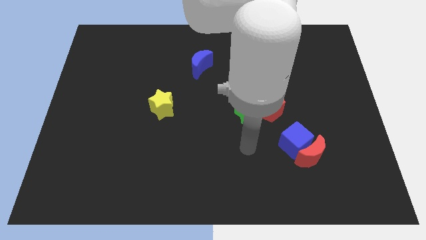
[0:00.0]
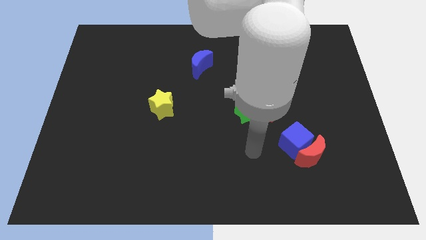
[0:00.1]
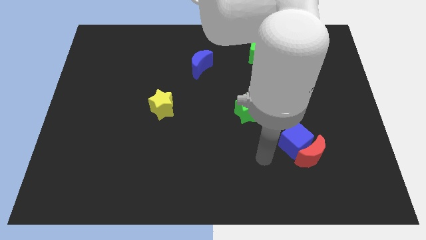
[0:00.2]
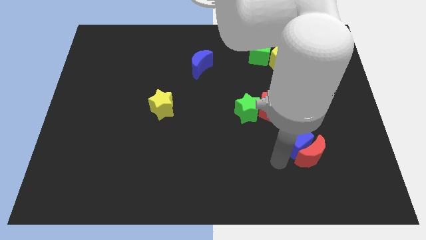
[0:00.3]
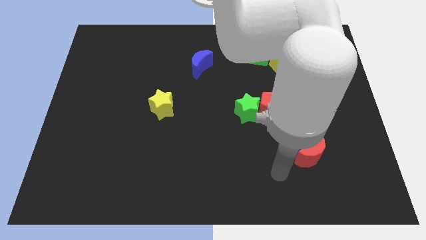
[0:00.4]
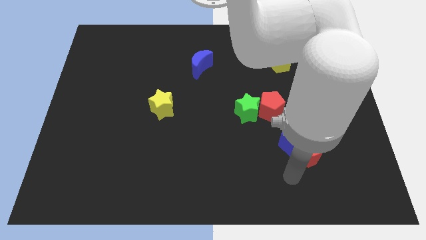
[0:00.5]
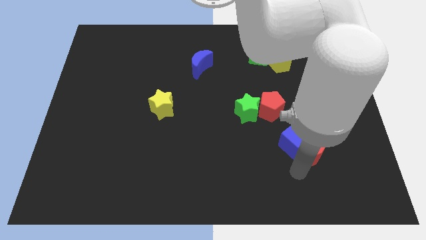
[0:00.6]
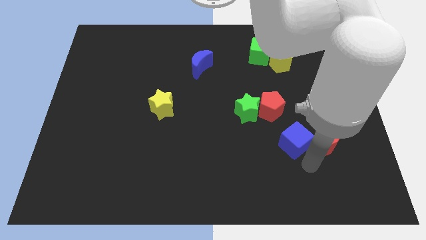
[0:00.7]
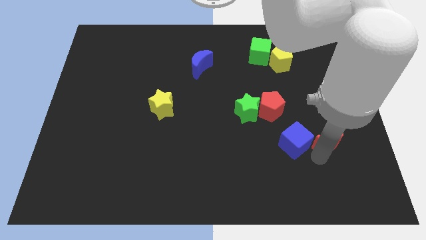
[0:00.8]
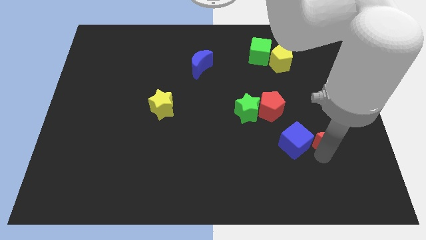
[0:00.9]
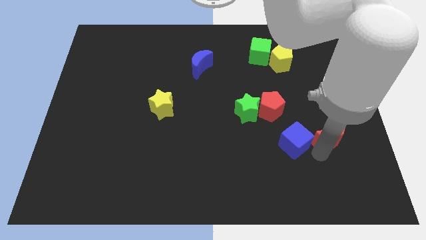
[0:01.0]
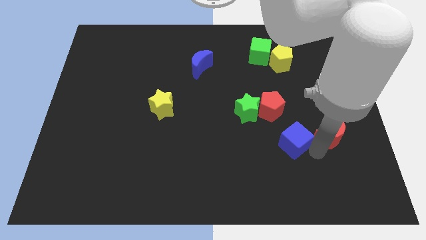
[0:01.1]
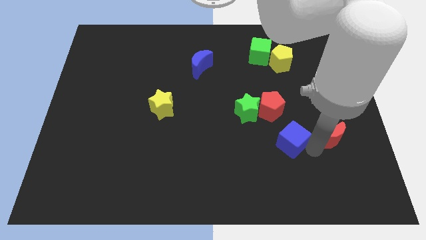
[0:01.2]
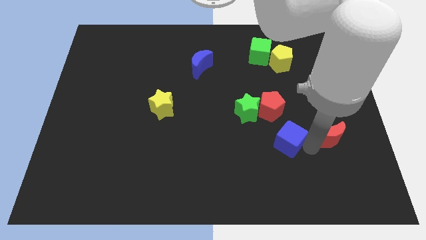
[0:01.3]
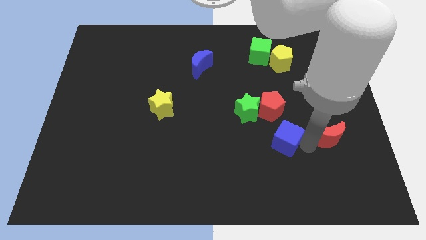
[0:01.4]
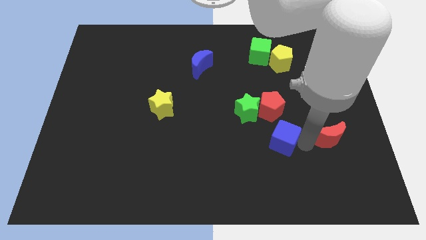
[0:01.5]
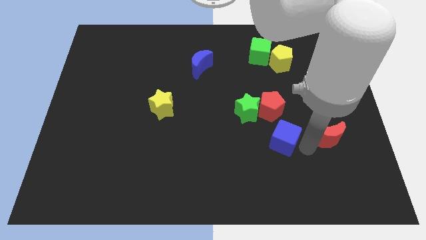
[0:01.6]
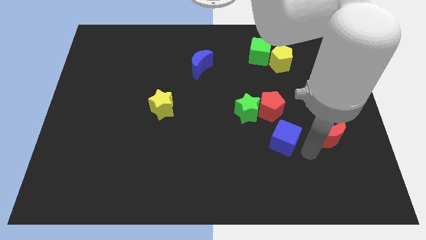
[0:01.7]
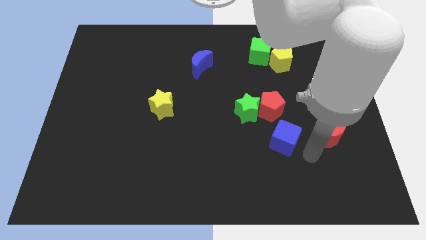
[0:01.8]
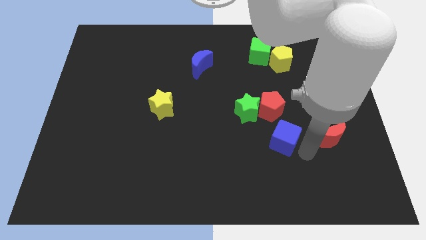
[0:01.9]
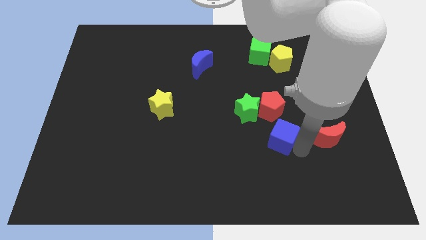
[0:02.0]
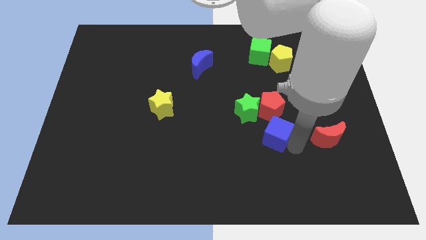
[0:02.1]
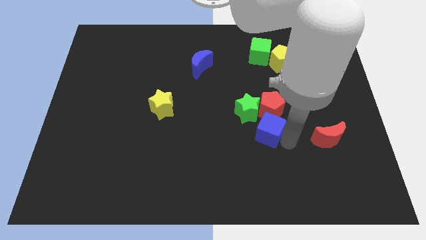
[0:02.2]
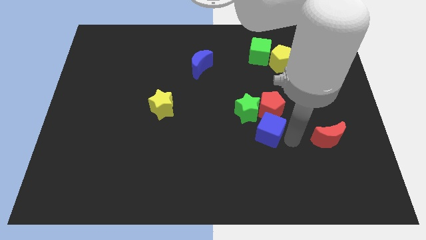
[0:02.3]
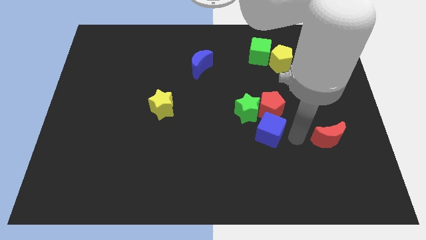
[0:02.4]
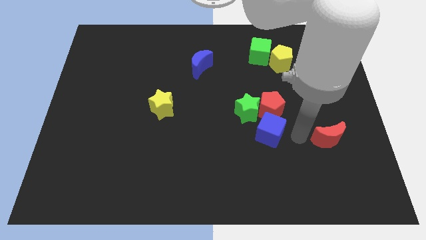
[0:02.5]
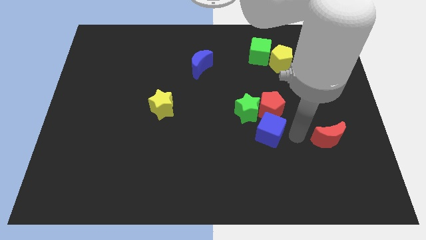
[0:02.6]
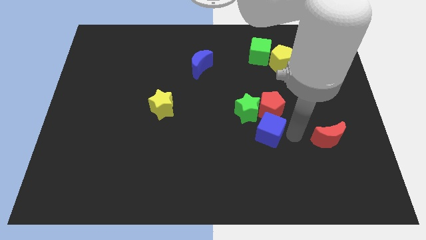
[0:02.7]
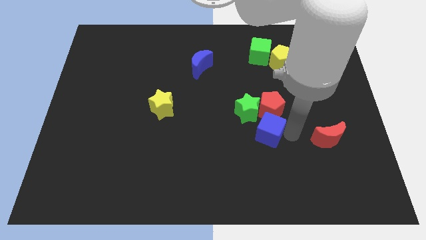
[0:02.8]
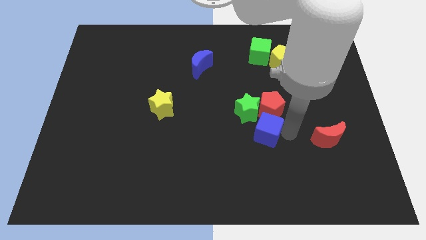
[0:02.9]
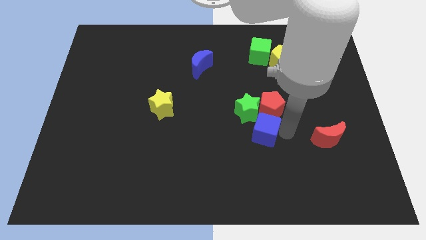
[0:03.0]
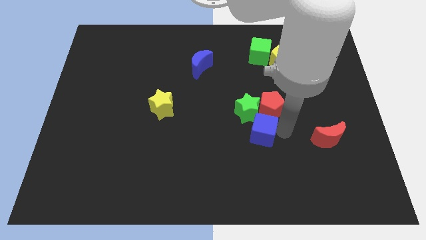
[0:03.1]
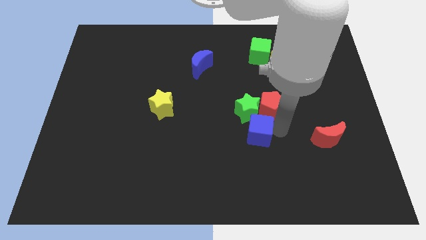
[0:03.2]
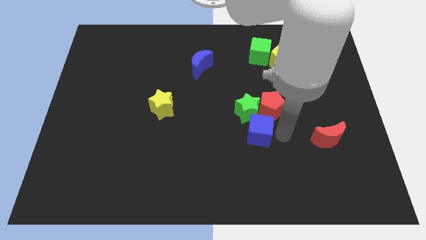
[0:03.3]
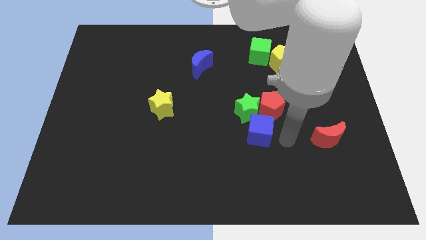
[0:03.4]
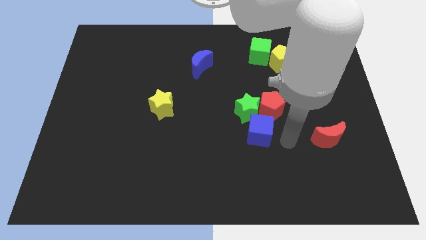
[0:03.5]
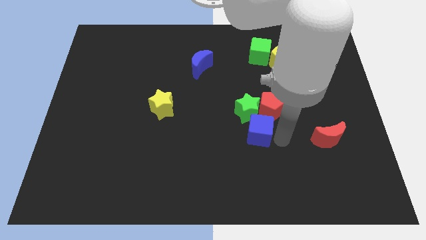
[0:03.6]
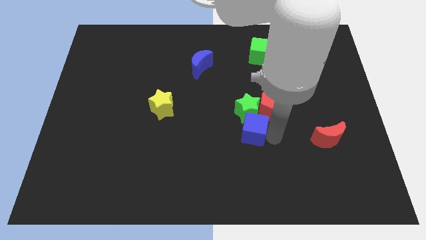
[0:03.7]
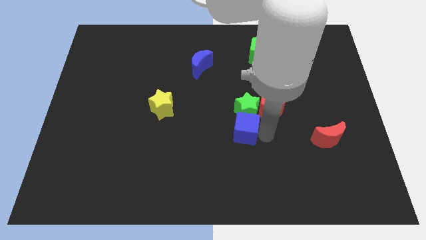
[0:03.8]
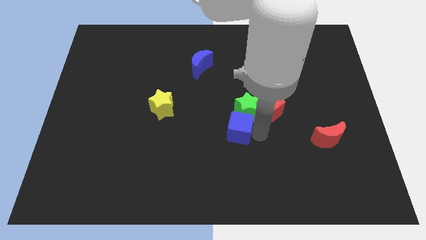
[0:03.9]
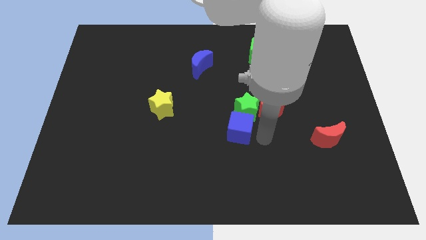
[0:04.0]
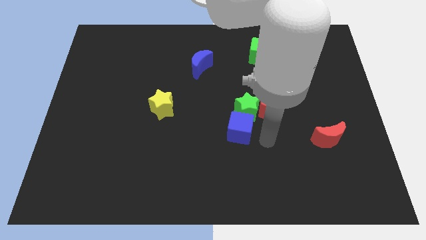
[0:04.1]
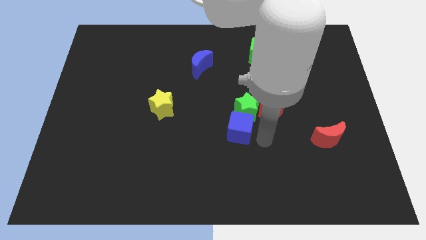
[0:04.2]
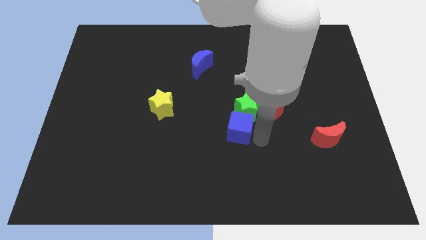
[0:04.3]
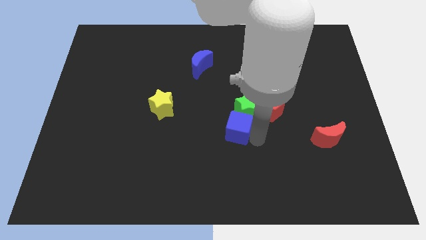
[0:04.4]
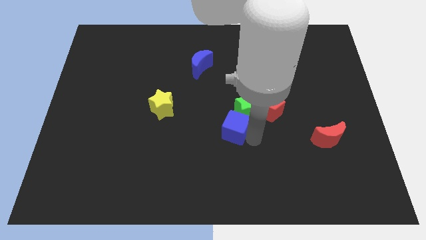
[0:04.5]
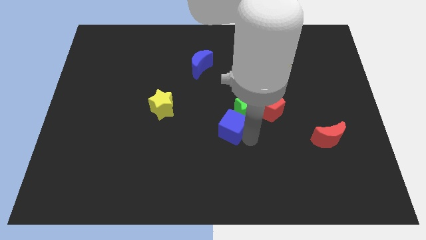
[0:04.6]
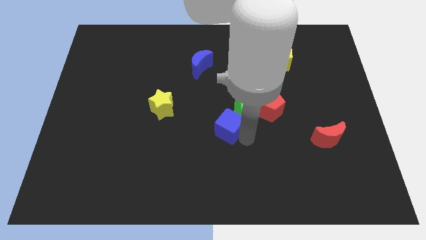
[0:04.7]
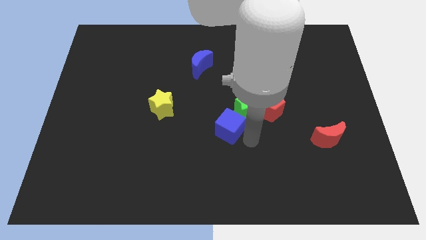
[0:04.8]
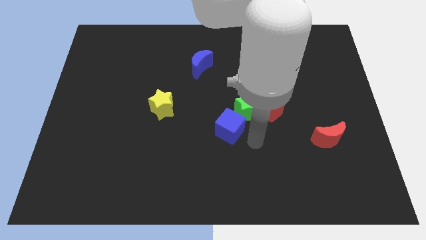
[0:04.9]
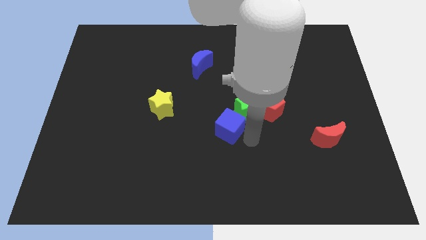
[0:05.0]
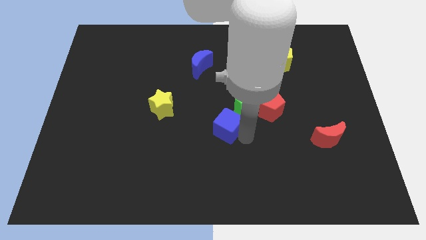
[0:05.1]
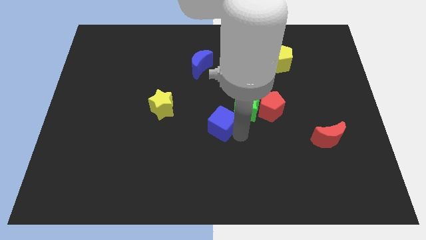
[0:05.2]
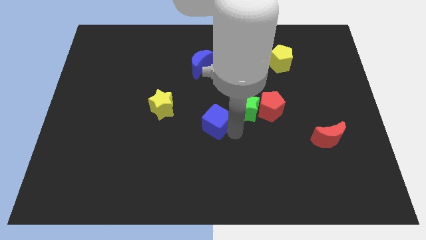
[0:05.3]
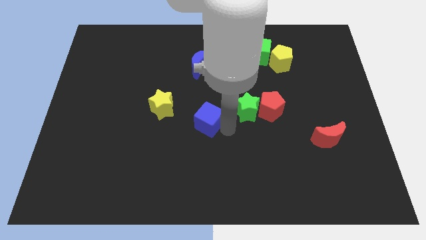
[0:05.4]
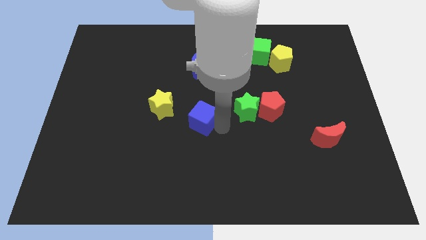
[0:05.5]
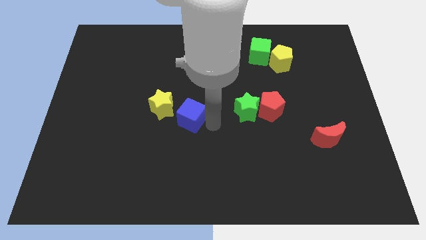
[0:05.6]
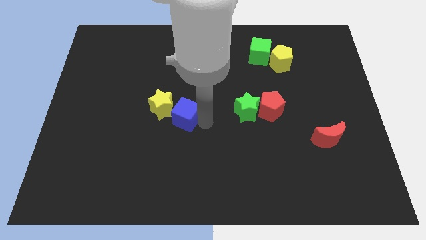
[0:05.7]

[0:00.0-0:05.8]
slide the blue cube towards the yellow star

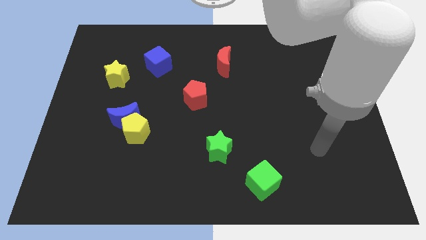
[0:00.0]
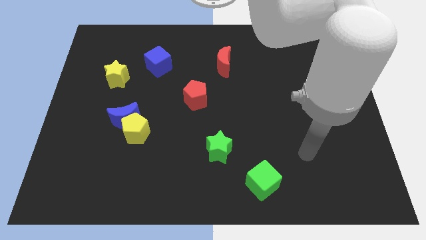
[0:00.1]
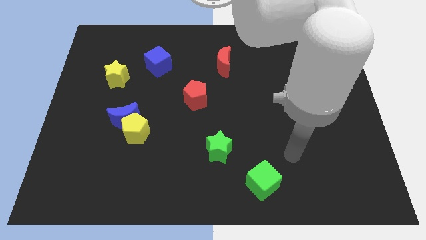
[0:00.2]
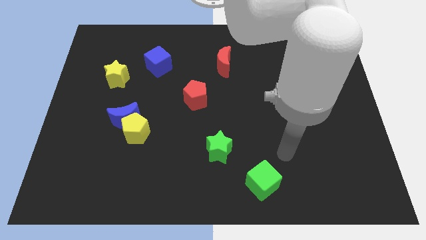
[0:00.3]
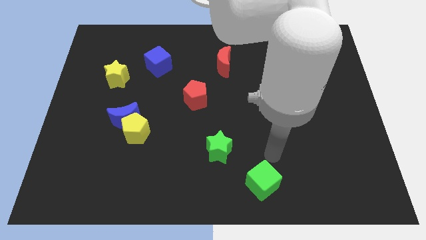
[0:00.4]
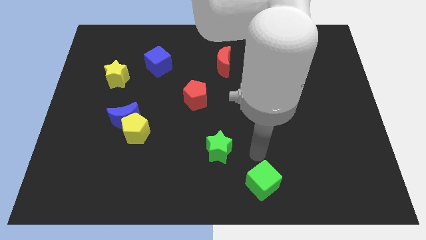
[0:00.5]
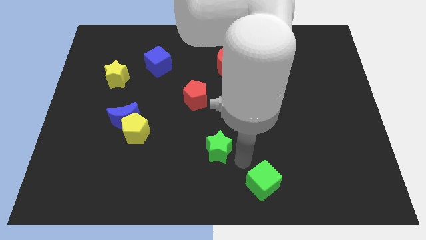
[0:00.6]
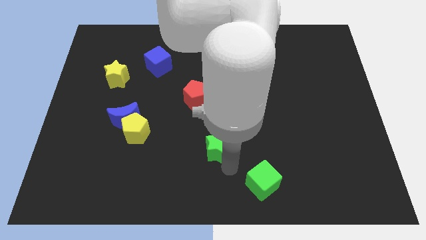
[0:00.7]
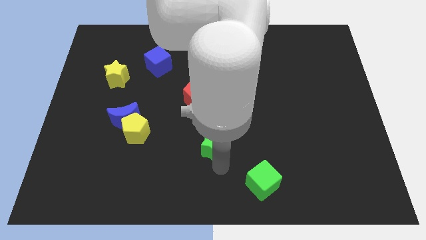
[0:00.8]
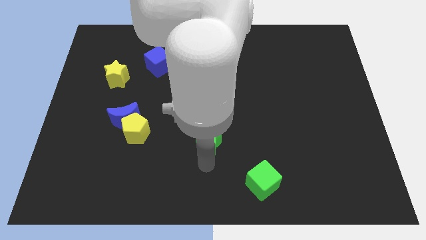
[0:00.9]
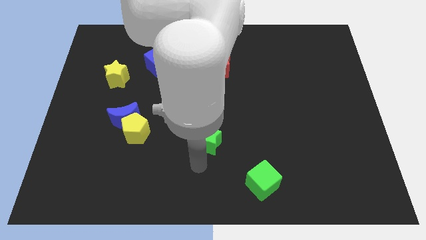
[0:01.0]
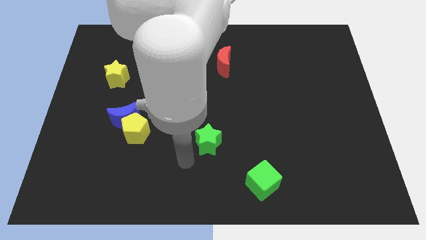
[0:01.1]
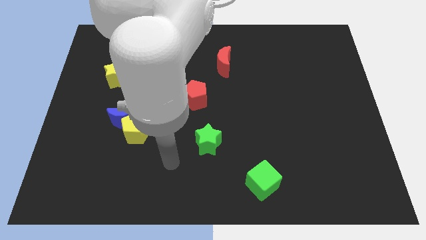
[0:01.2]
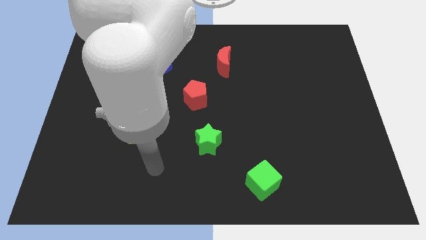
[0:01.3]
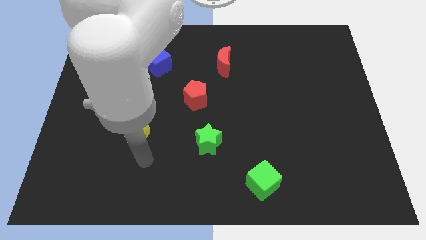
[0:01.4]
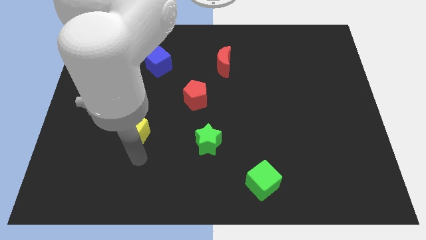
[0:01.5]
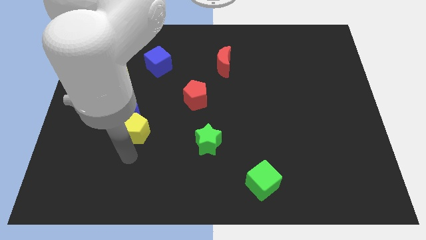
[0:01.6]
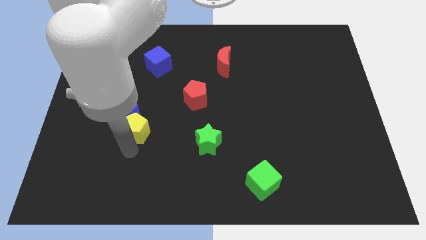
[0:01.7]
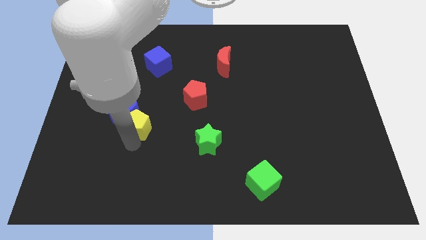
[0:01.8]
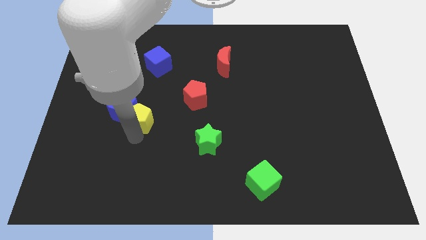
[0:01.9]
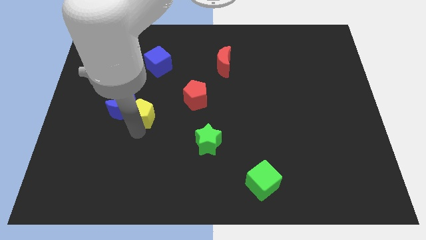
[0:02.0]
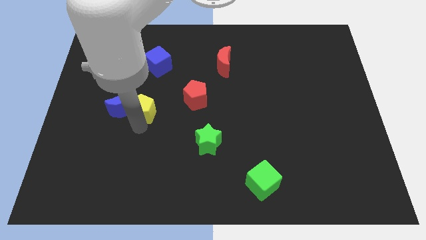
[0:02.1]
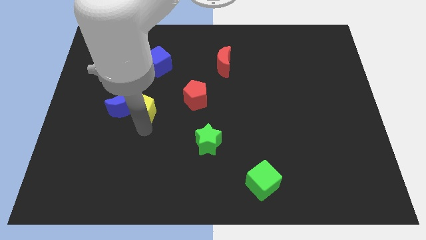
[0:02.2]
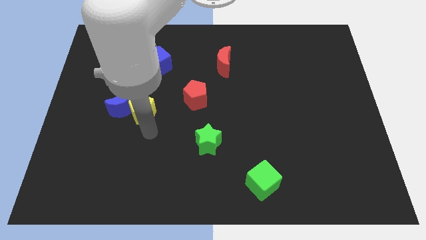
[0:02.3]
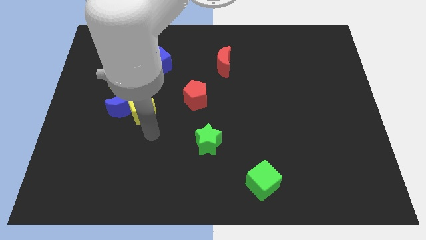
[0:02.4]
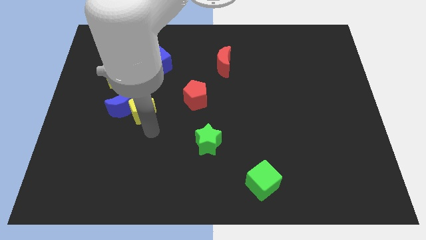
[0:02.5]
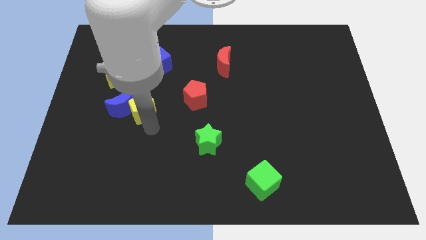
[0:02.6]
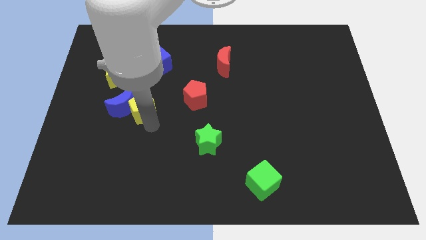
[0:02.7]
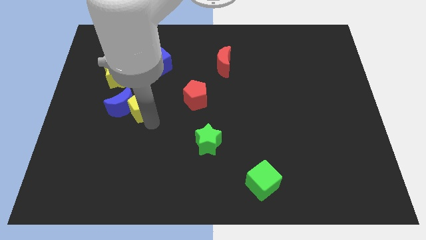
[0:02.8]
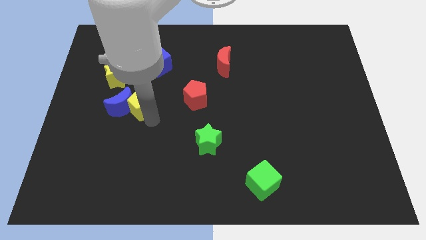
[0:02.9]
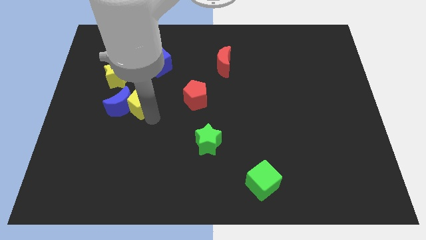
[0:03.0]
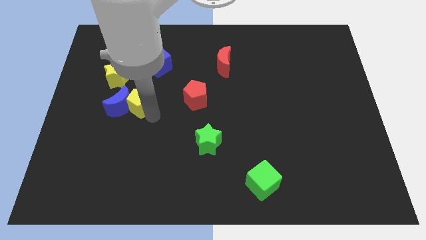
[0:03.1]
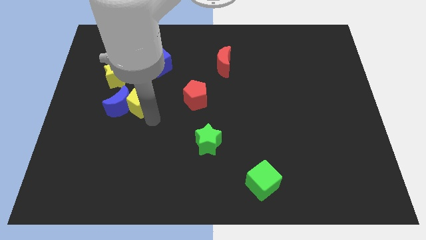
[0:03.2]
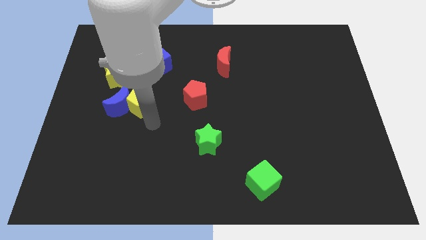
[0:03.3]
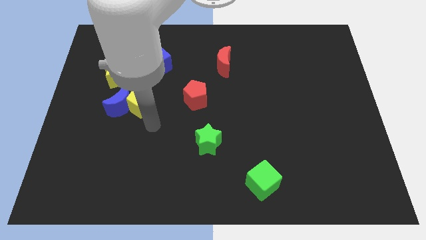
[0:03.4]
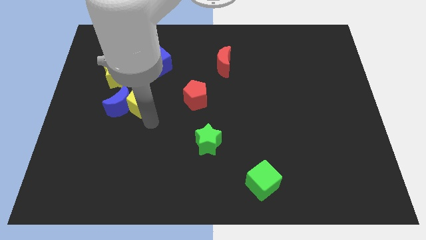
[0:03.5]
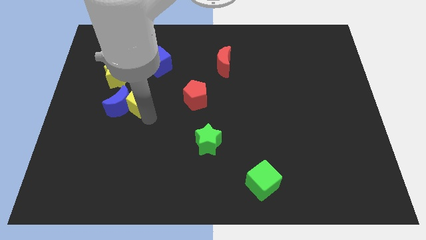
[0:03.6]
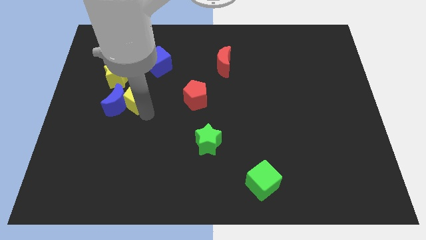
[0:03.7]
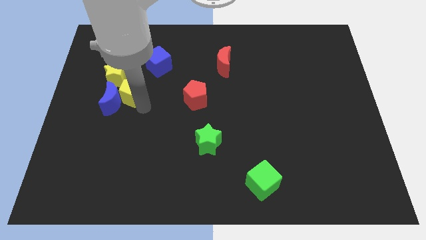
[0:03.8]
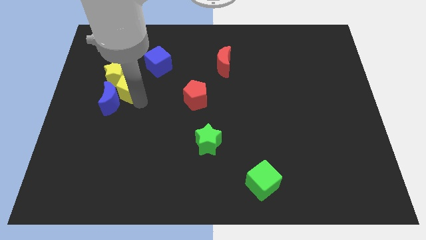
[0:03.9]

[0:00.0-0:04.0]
slide the yellow pentagon close to the yellow star
